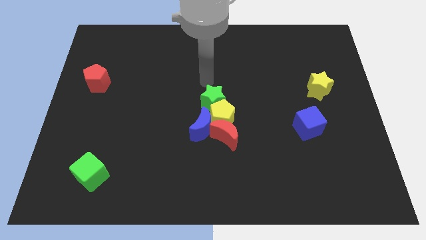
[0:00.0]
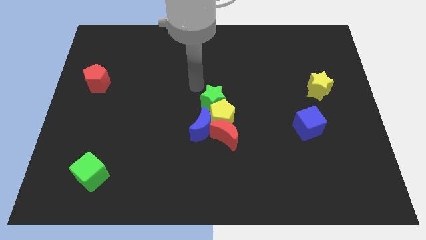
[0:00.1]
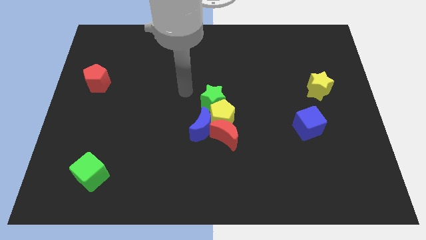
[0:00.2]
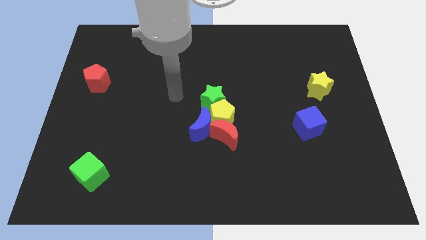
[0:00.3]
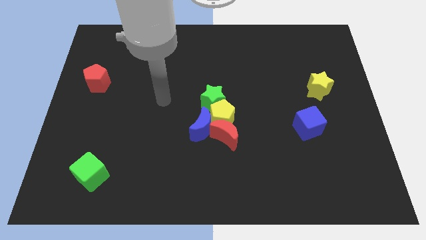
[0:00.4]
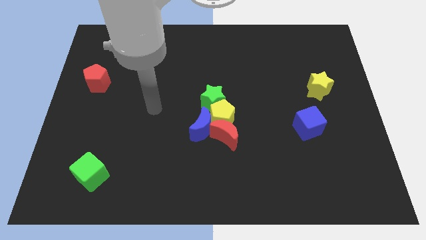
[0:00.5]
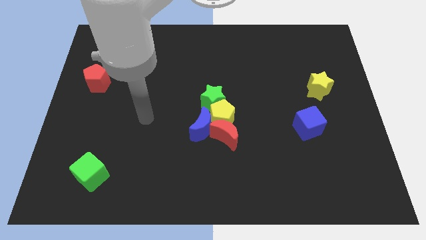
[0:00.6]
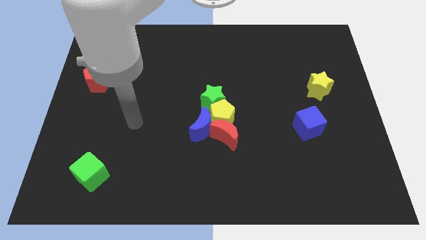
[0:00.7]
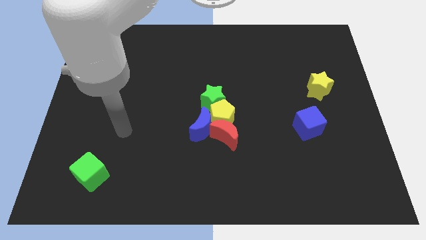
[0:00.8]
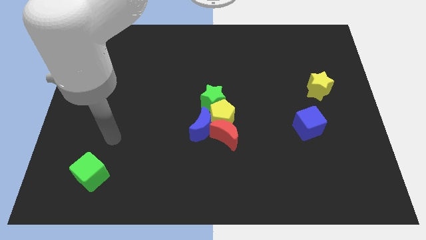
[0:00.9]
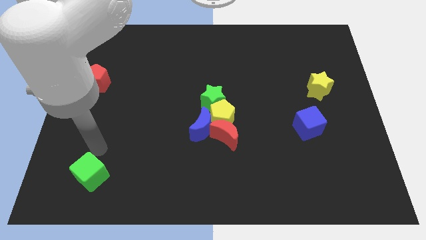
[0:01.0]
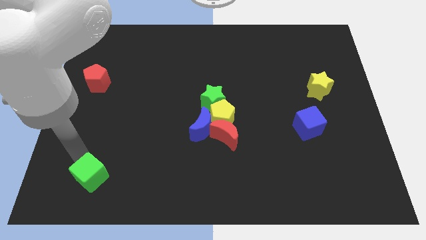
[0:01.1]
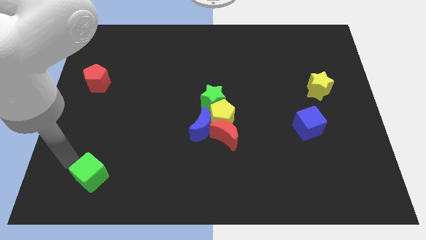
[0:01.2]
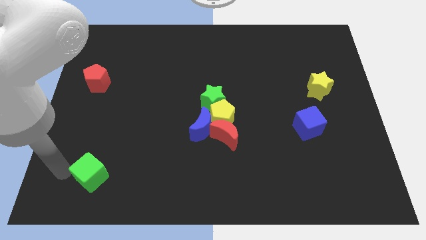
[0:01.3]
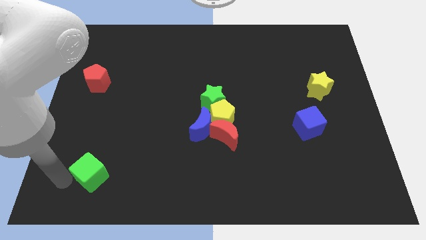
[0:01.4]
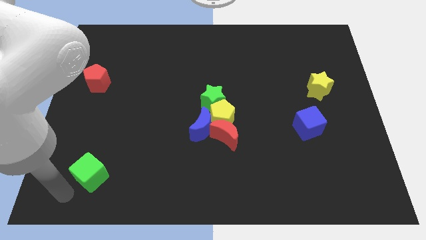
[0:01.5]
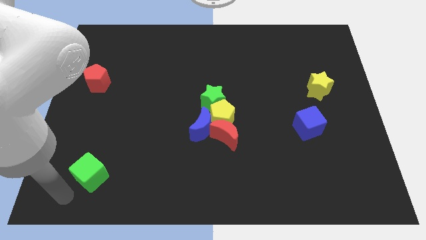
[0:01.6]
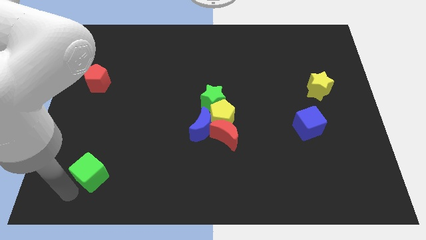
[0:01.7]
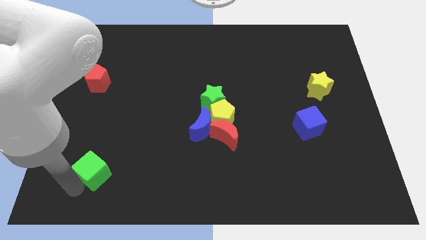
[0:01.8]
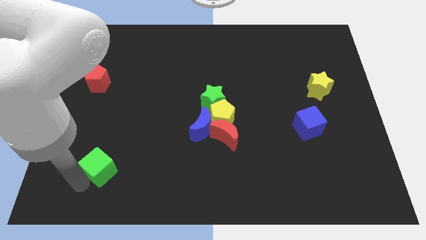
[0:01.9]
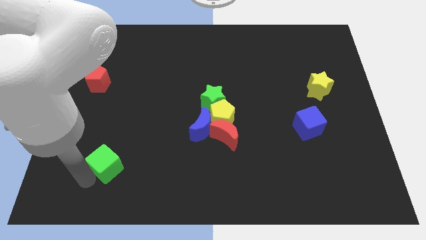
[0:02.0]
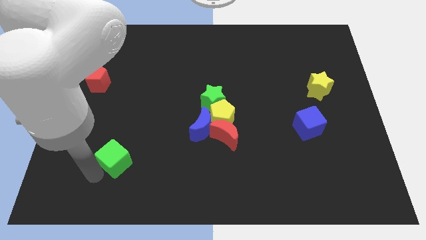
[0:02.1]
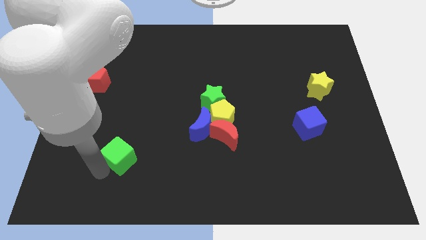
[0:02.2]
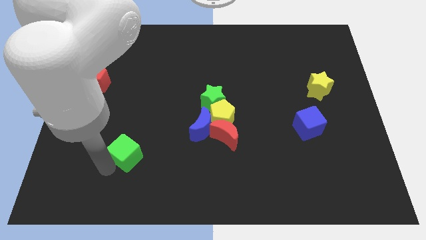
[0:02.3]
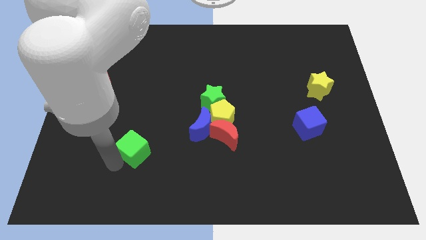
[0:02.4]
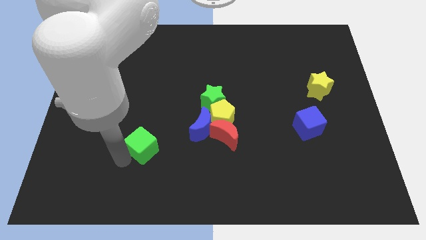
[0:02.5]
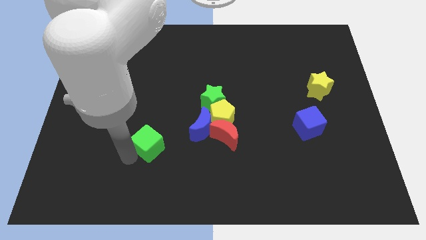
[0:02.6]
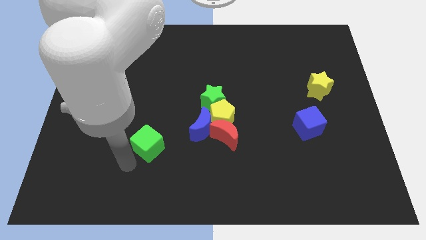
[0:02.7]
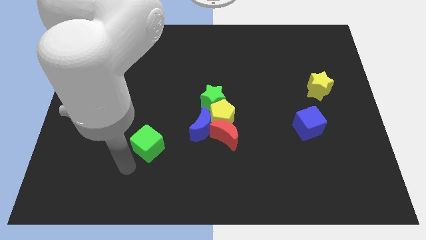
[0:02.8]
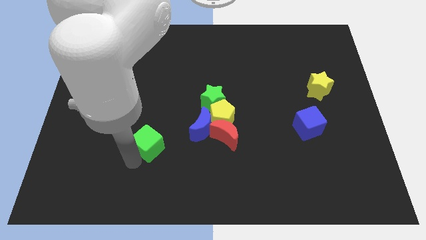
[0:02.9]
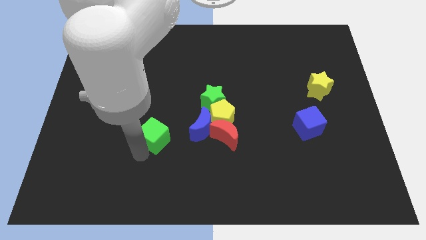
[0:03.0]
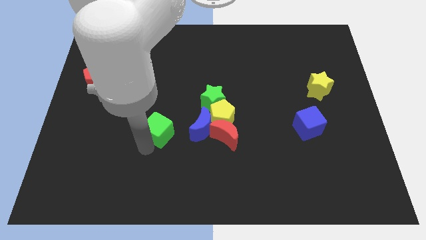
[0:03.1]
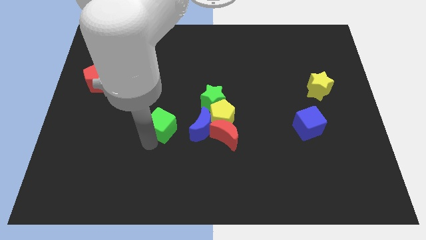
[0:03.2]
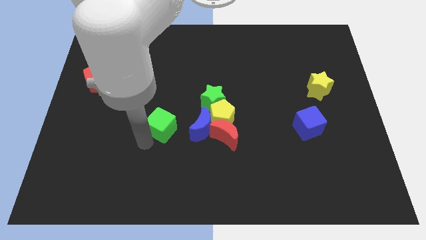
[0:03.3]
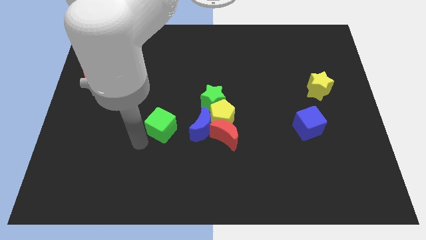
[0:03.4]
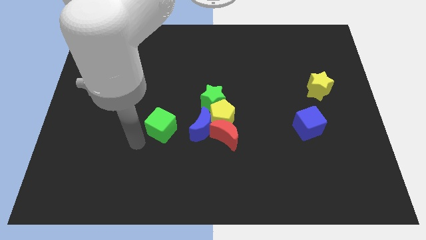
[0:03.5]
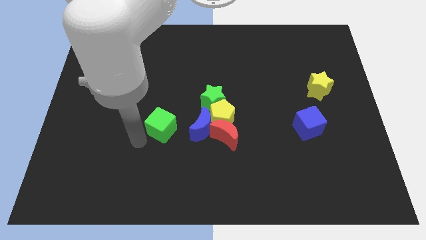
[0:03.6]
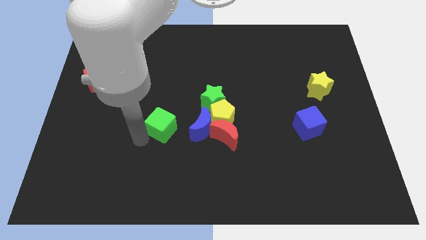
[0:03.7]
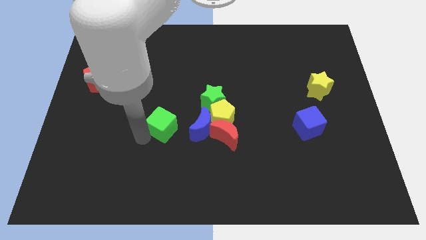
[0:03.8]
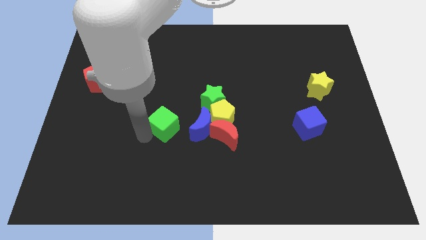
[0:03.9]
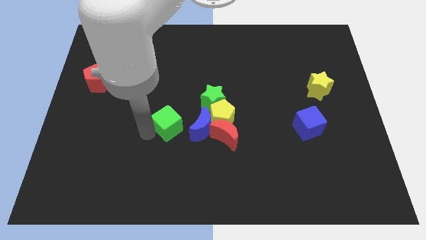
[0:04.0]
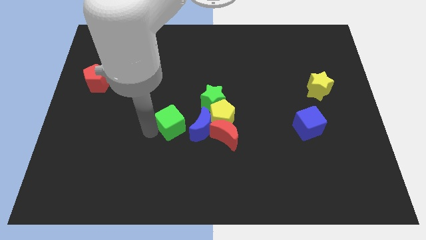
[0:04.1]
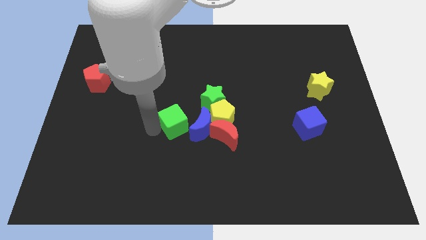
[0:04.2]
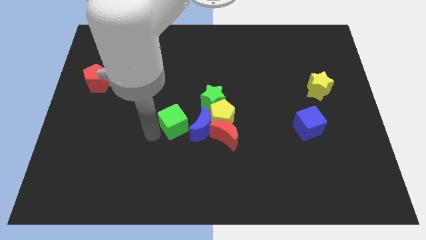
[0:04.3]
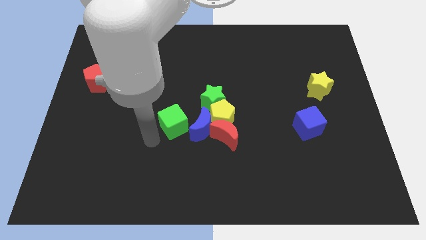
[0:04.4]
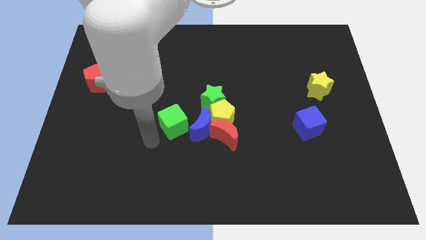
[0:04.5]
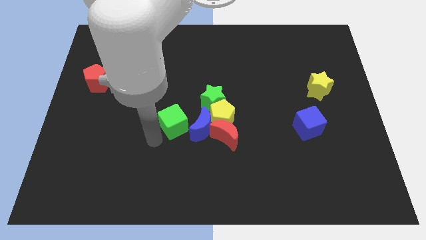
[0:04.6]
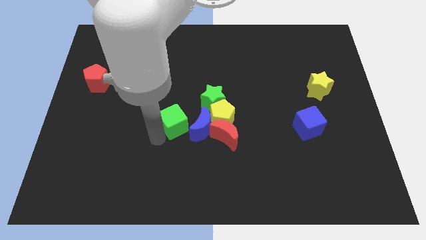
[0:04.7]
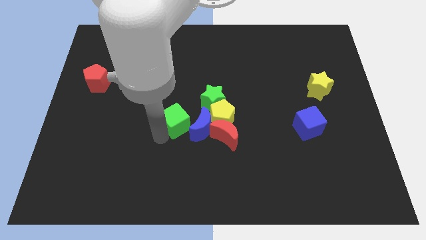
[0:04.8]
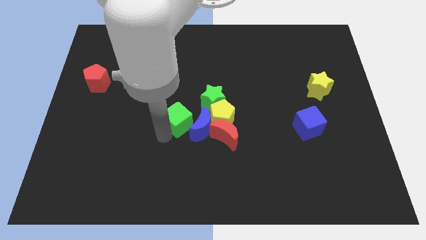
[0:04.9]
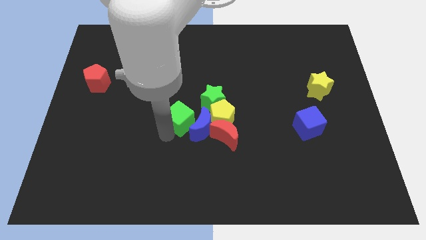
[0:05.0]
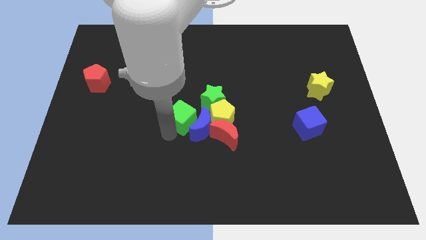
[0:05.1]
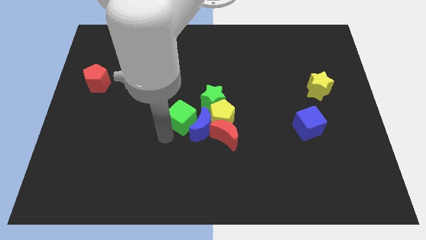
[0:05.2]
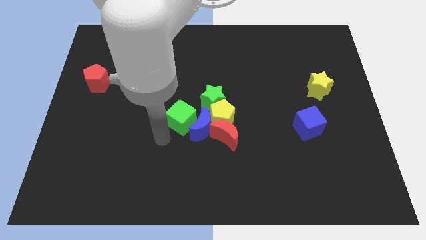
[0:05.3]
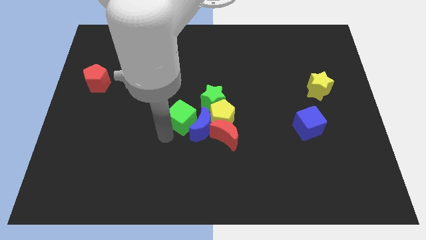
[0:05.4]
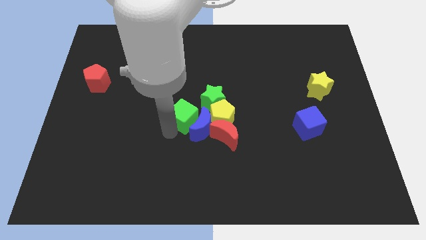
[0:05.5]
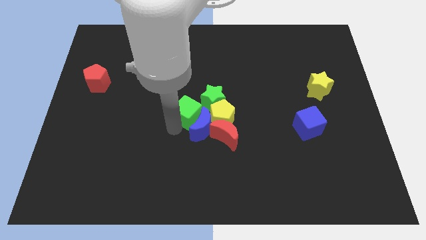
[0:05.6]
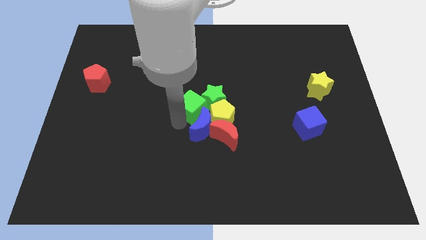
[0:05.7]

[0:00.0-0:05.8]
move the green cube next to the green star

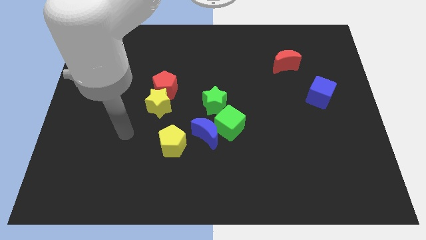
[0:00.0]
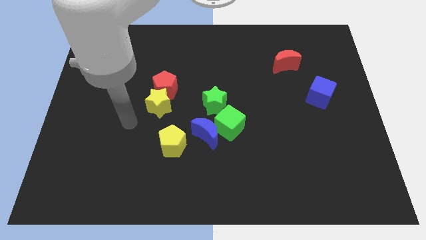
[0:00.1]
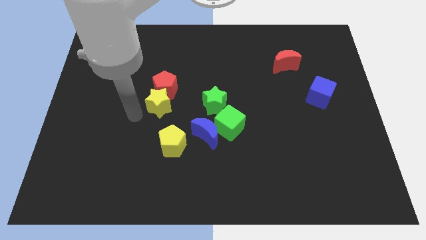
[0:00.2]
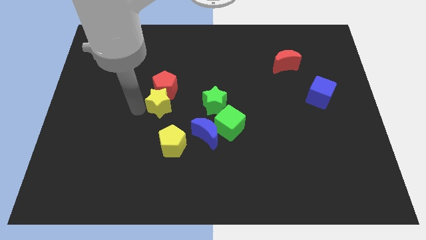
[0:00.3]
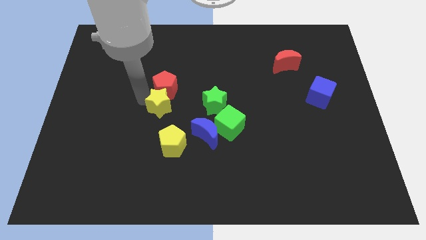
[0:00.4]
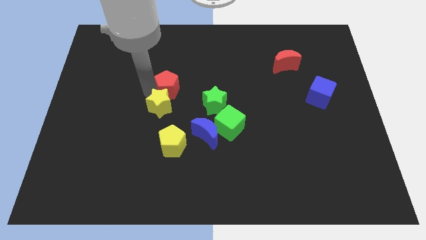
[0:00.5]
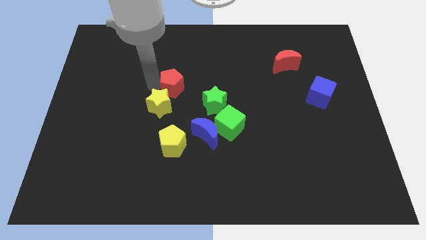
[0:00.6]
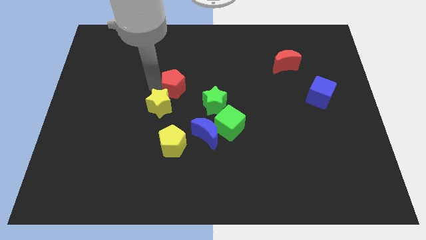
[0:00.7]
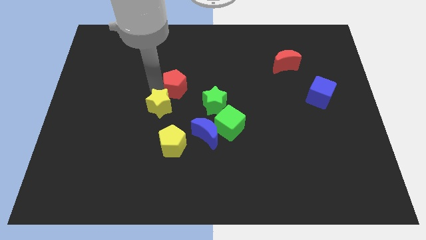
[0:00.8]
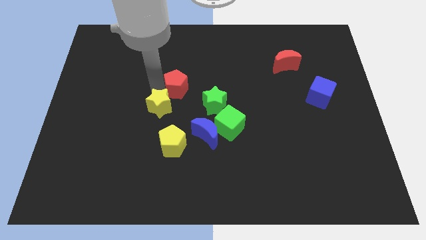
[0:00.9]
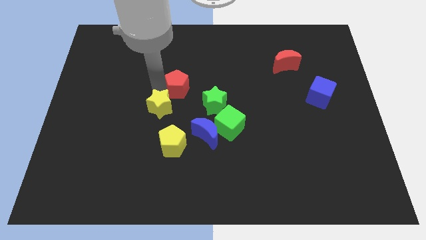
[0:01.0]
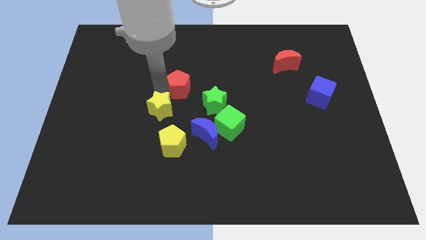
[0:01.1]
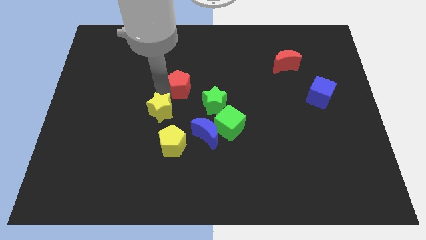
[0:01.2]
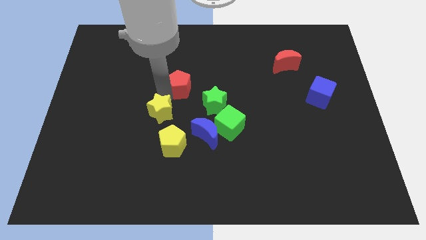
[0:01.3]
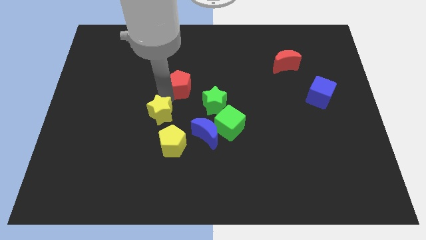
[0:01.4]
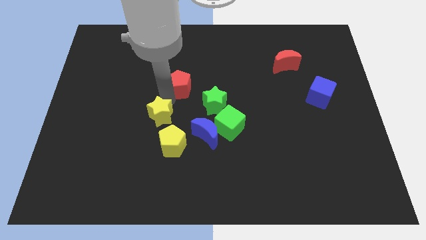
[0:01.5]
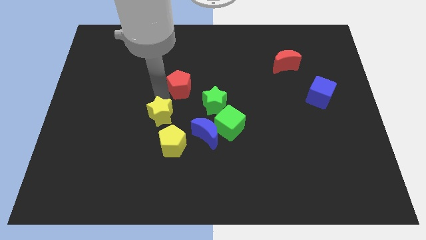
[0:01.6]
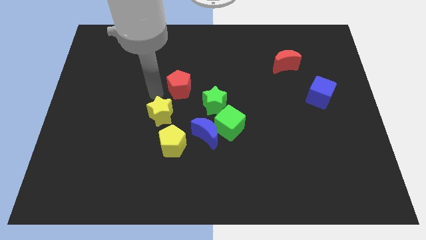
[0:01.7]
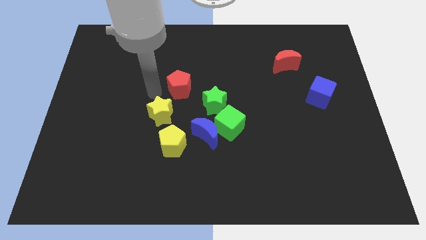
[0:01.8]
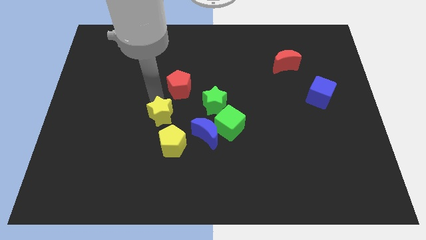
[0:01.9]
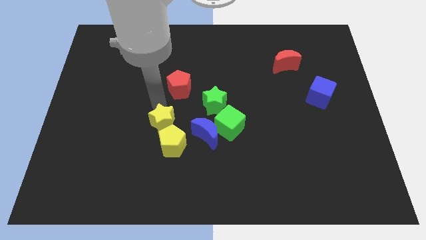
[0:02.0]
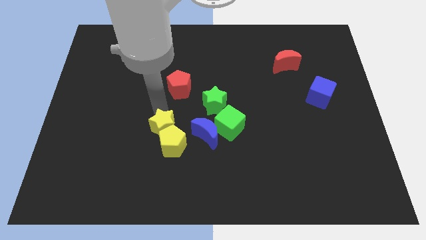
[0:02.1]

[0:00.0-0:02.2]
slide the yellow star to the yellow pentagon
